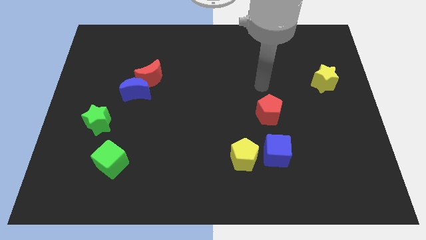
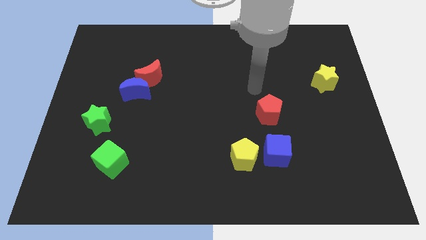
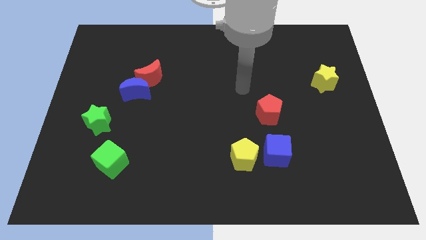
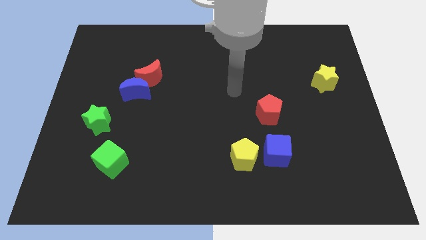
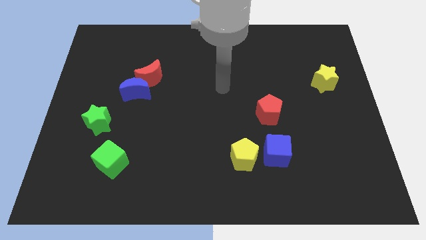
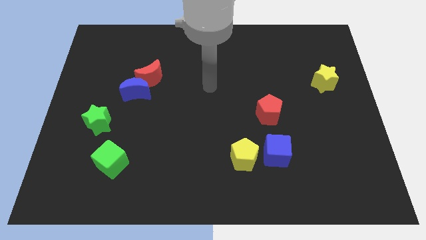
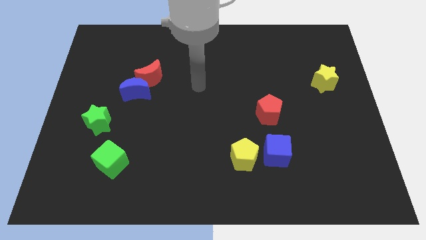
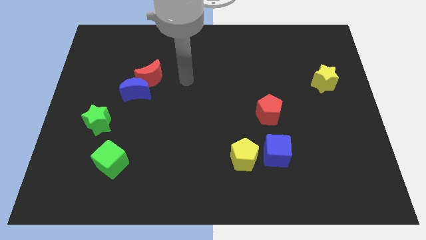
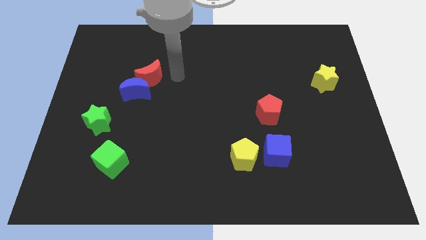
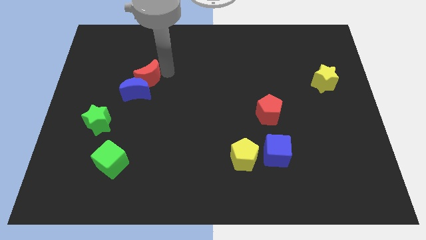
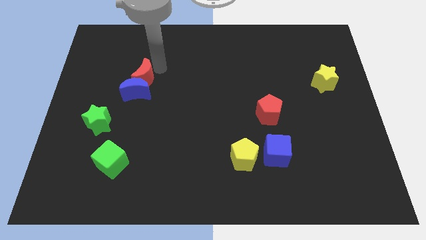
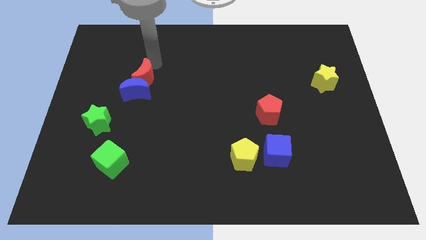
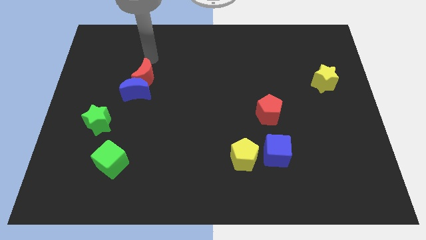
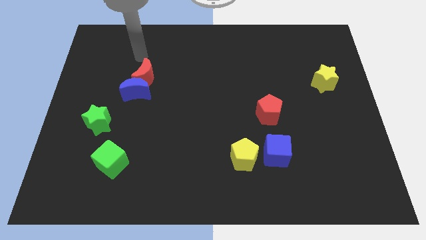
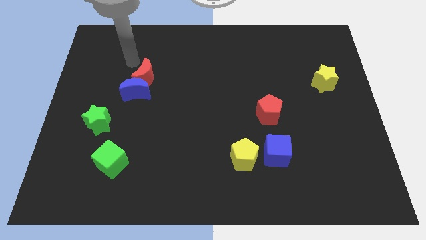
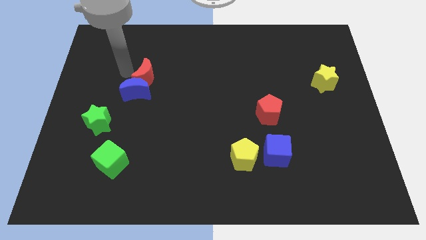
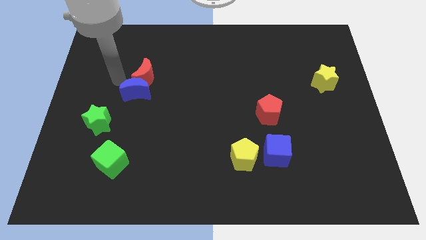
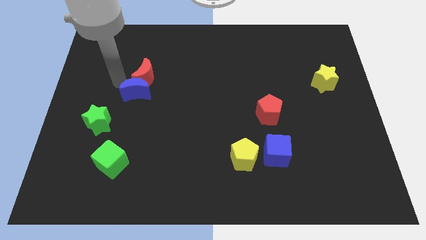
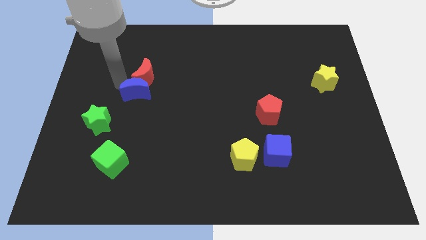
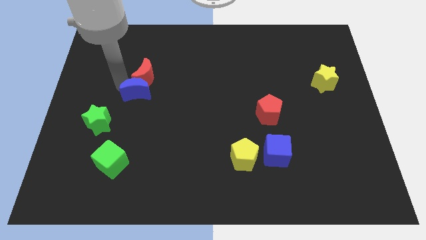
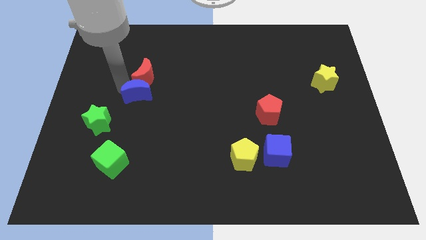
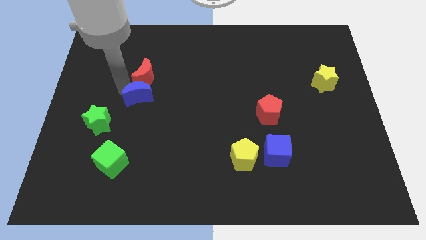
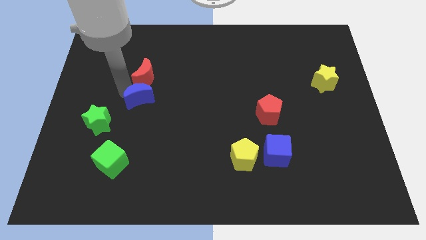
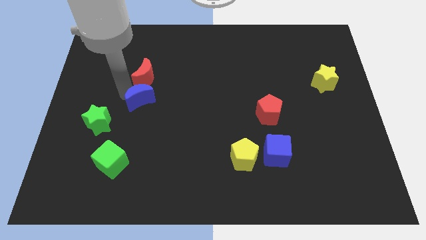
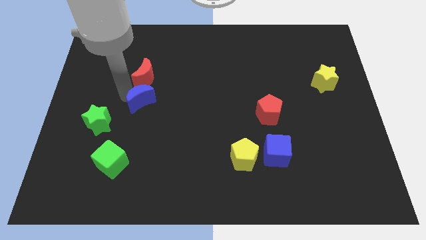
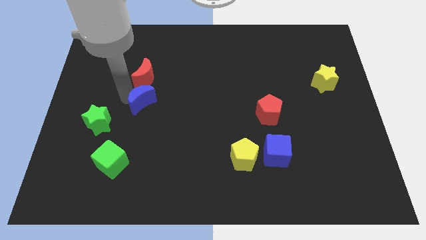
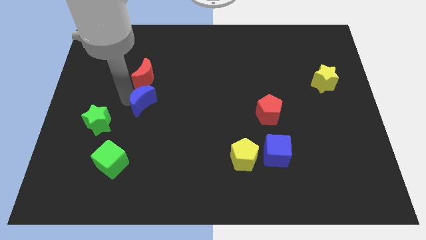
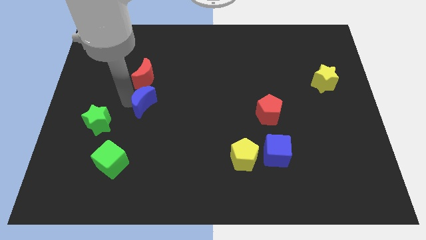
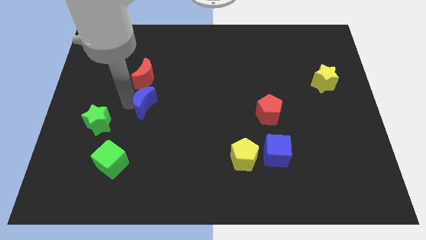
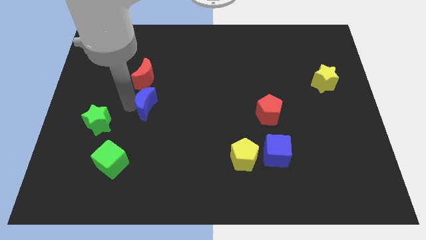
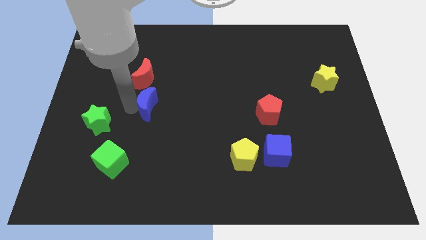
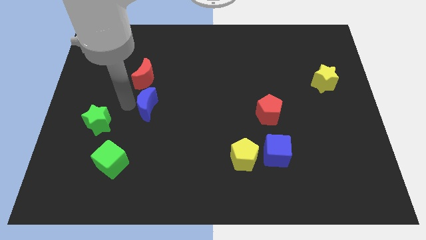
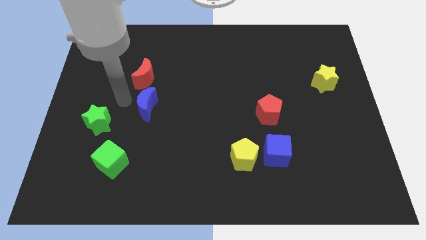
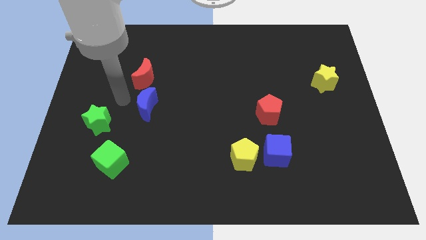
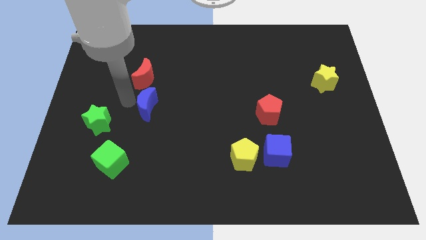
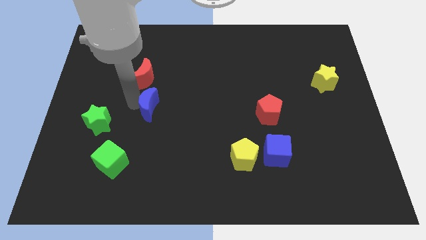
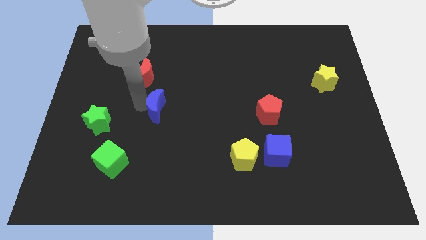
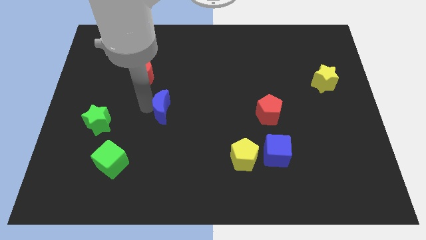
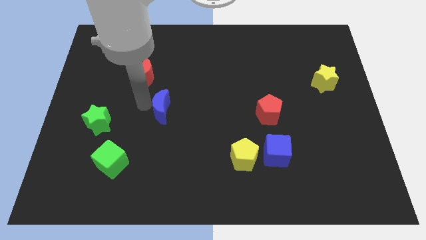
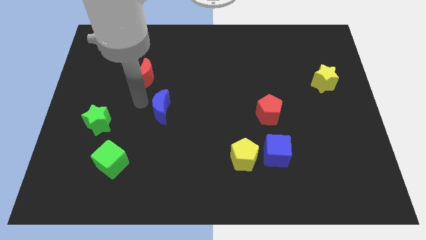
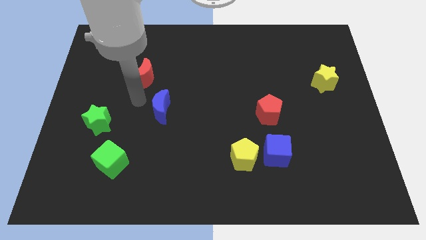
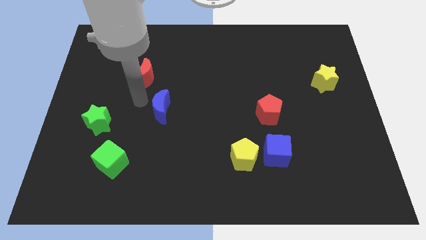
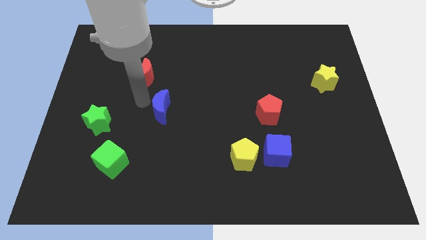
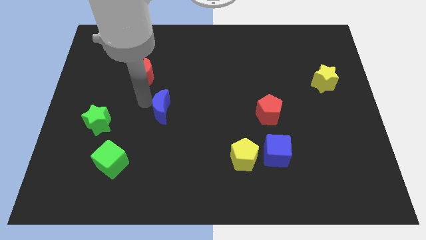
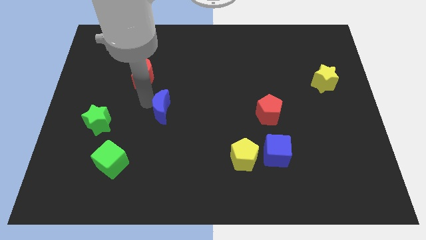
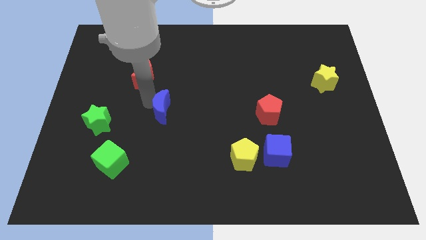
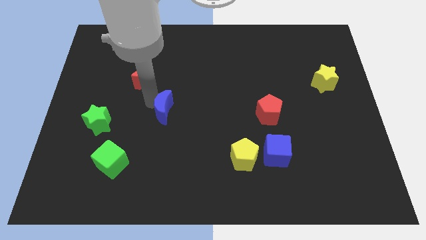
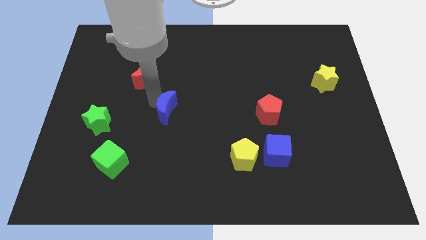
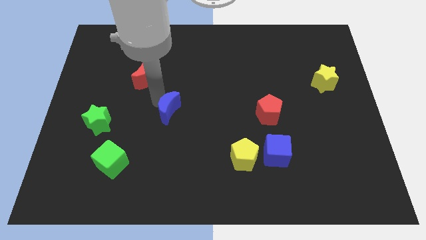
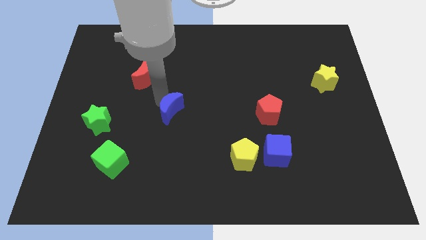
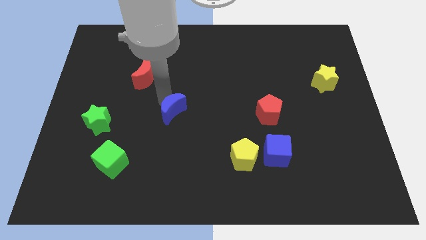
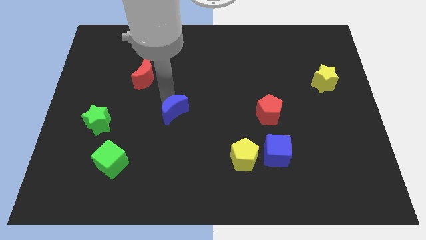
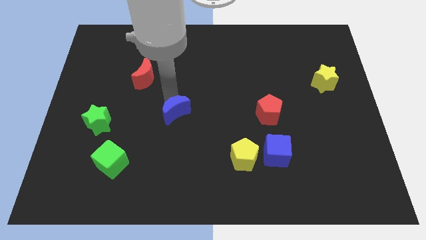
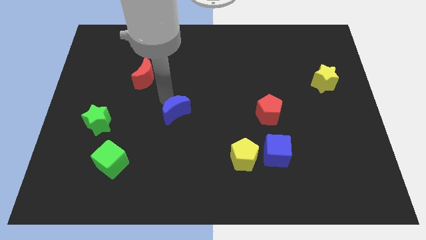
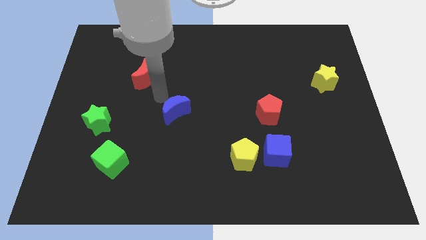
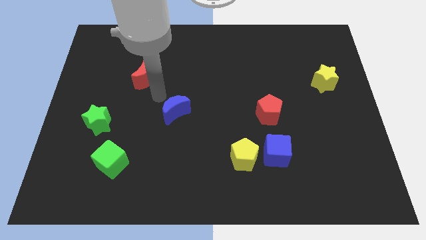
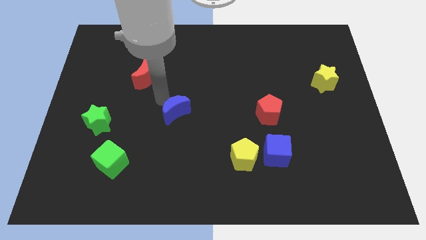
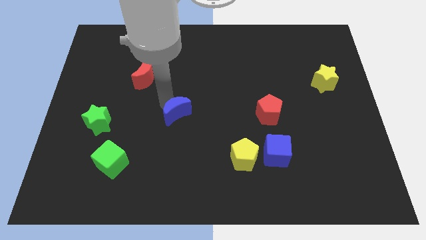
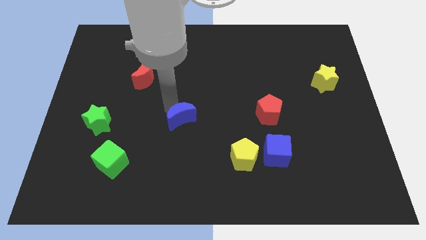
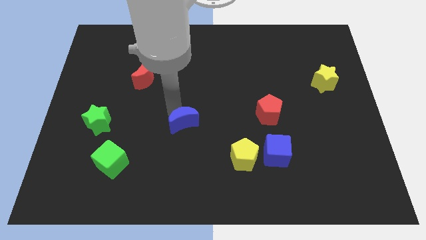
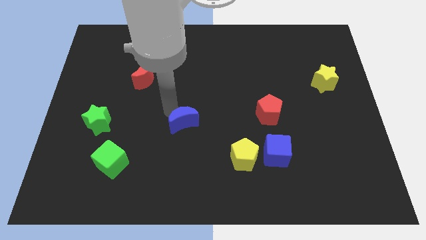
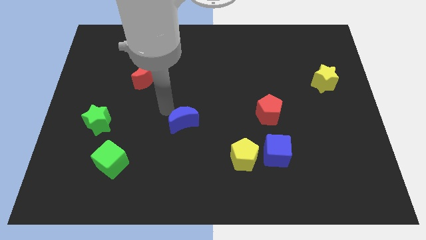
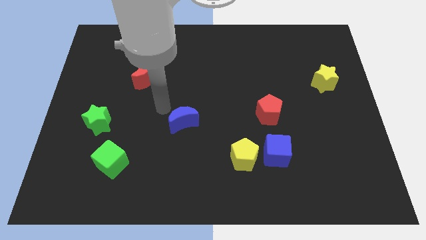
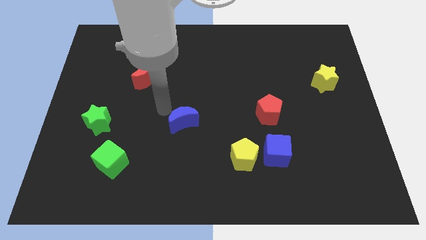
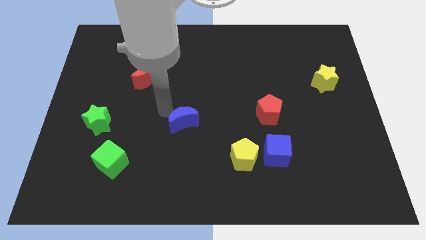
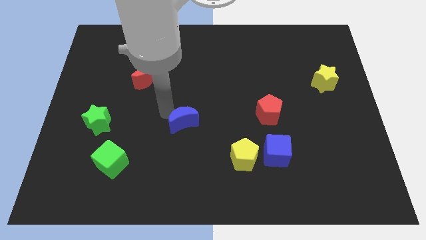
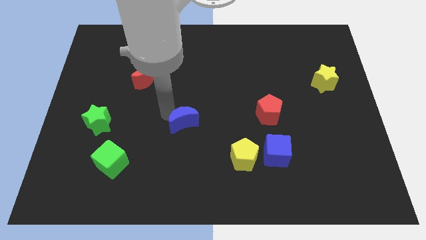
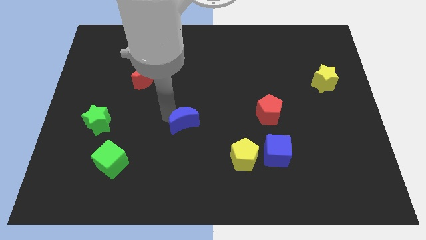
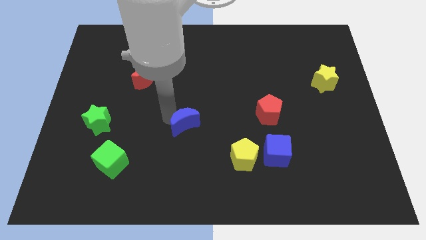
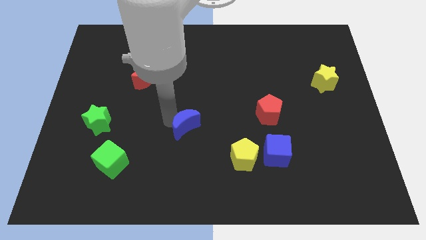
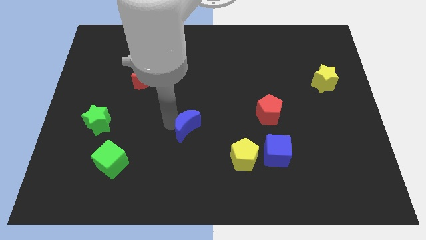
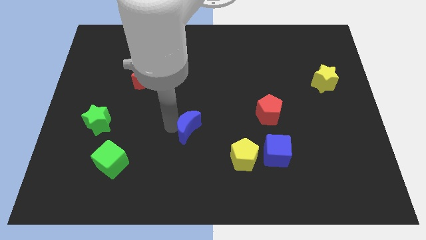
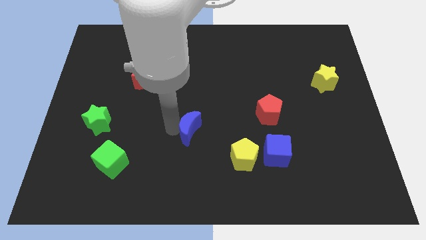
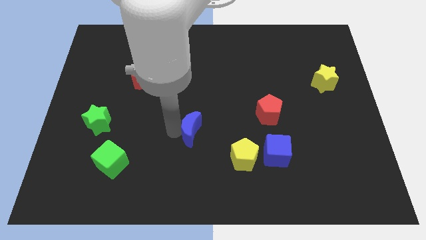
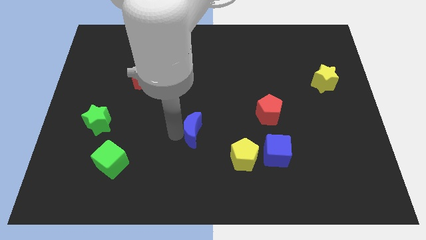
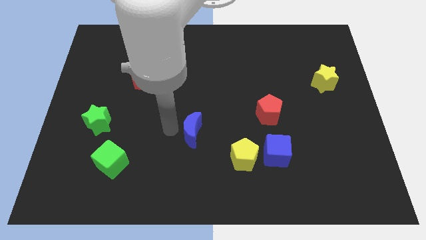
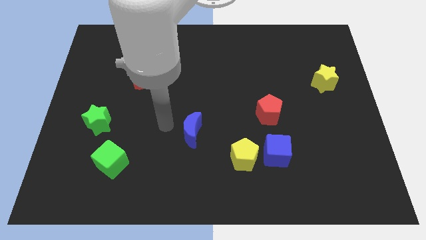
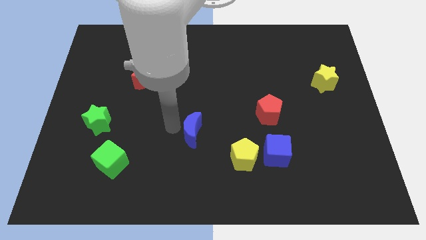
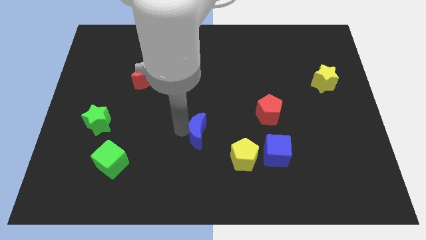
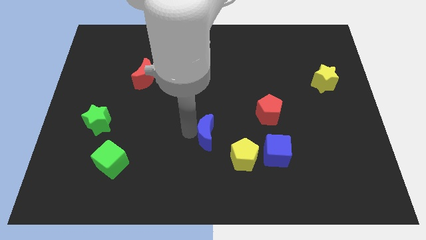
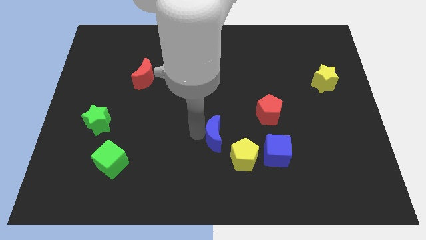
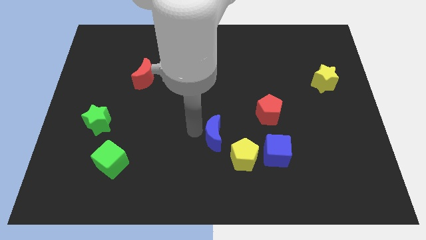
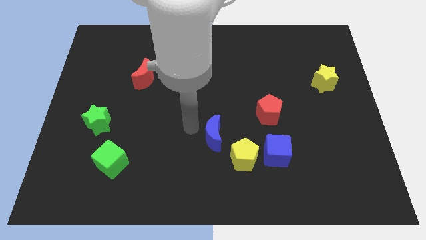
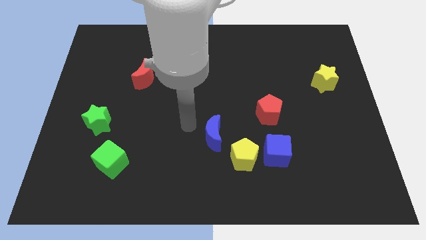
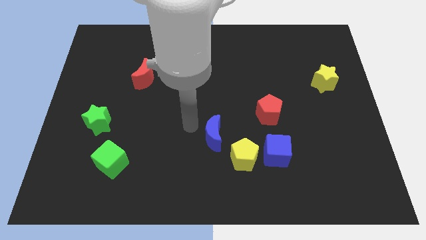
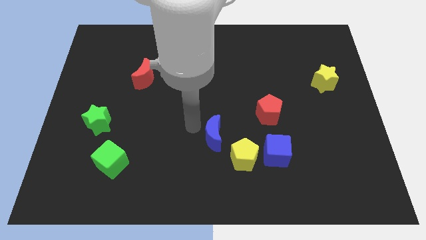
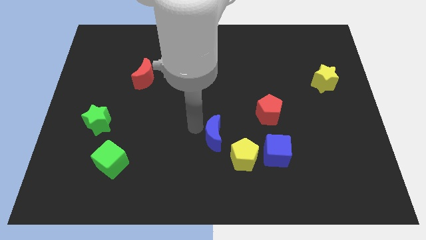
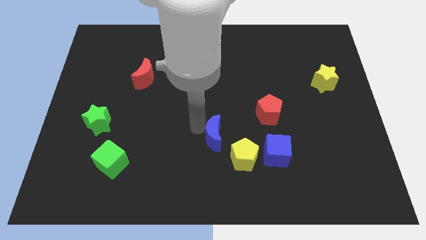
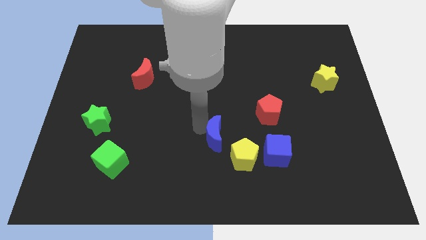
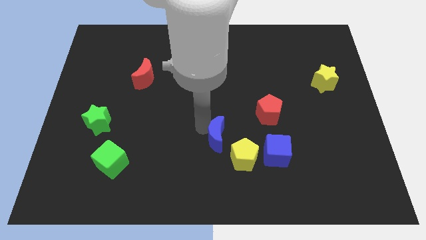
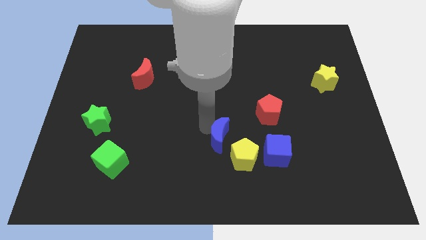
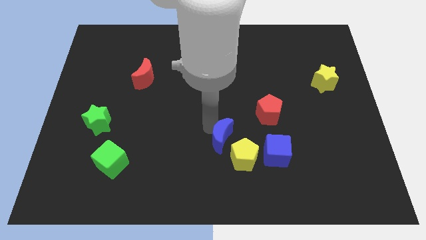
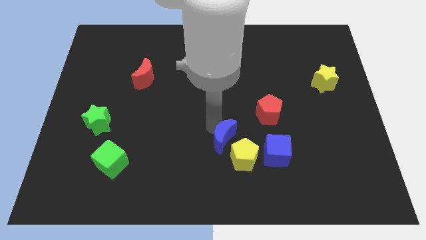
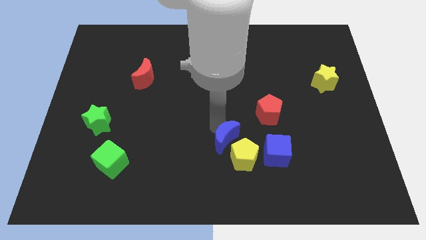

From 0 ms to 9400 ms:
put the blue moon towards the yellow pentagon
